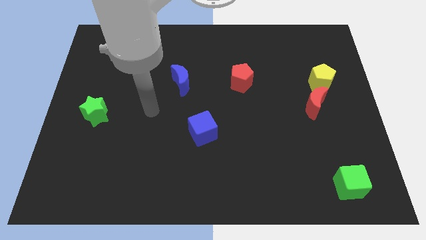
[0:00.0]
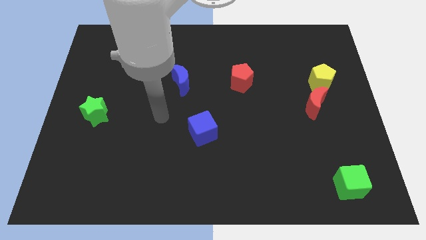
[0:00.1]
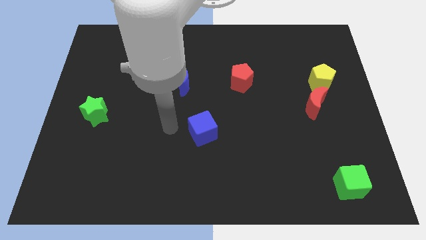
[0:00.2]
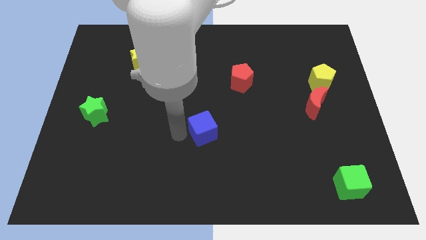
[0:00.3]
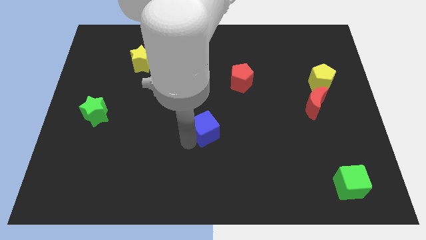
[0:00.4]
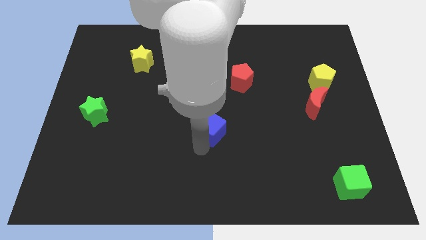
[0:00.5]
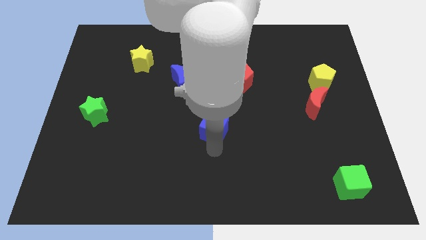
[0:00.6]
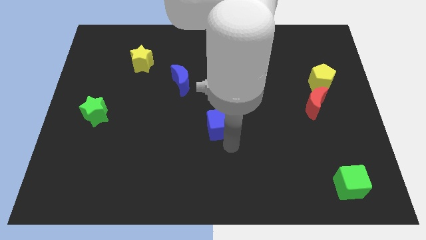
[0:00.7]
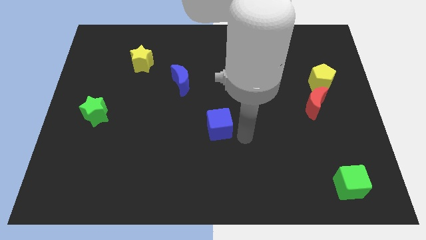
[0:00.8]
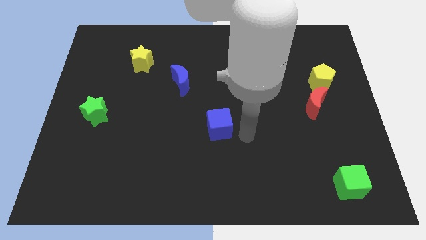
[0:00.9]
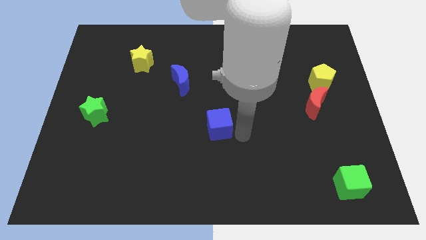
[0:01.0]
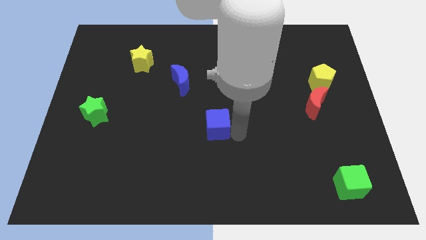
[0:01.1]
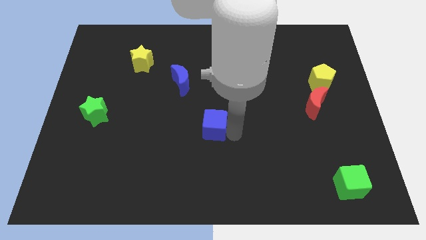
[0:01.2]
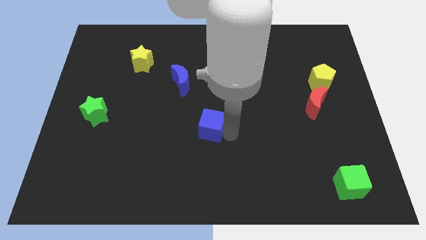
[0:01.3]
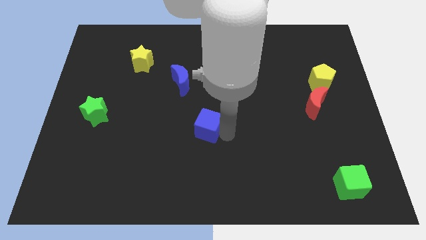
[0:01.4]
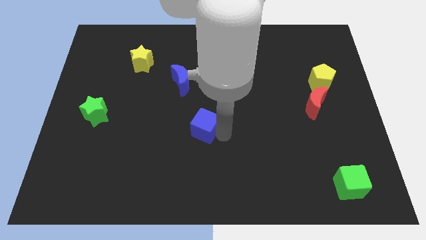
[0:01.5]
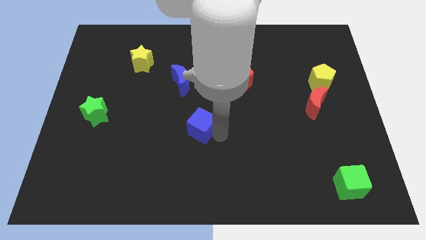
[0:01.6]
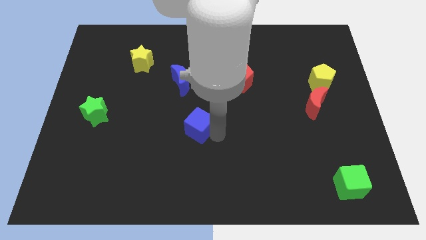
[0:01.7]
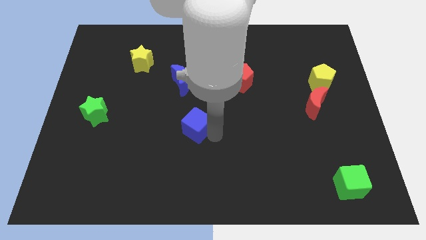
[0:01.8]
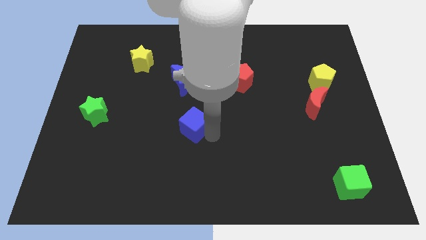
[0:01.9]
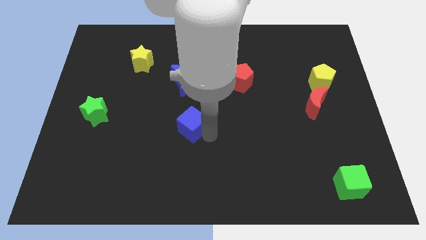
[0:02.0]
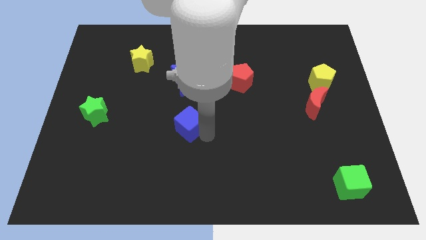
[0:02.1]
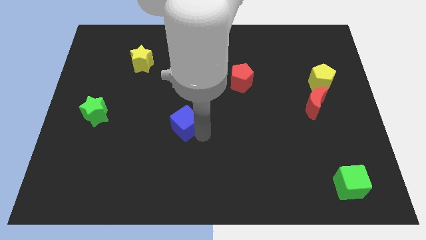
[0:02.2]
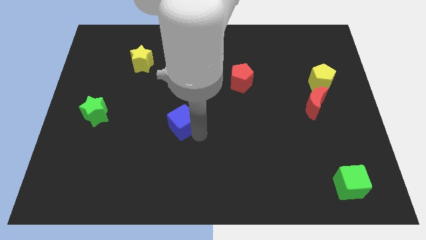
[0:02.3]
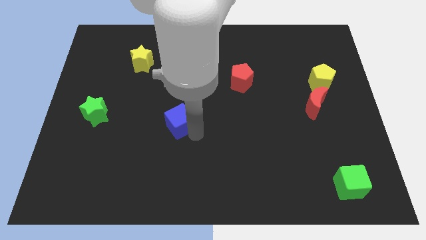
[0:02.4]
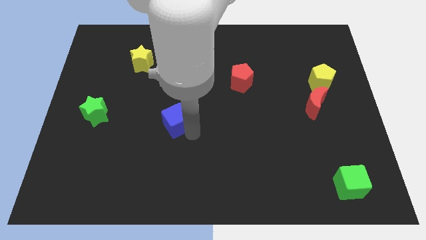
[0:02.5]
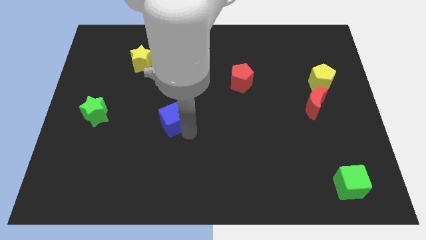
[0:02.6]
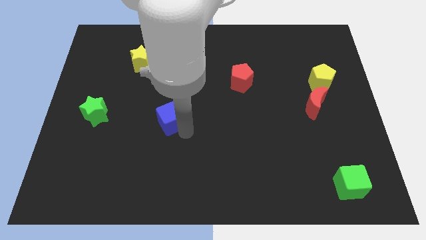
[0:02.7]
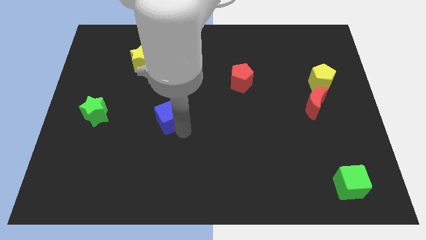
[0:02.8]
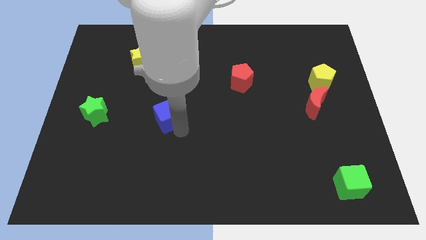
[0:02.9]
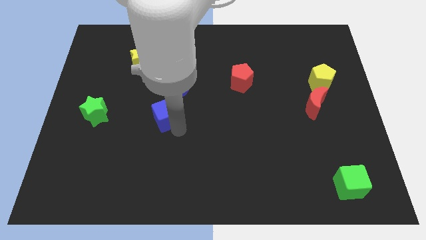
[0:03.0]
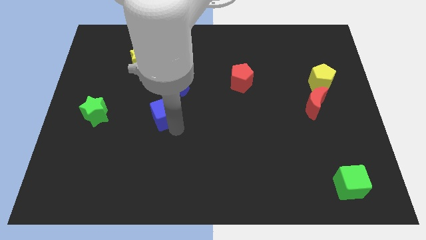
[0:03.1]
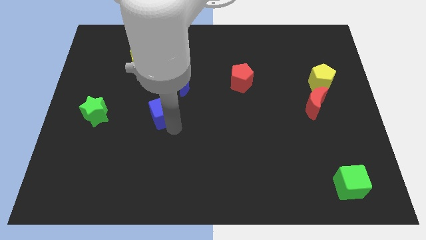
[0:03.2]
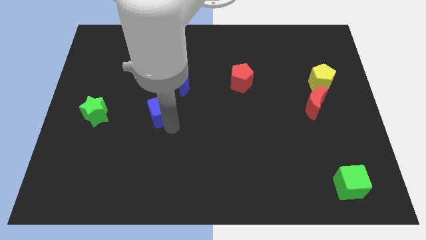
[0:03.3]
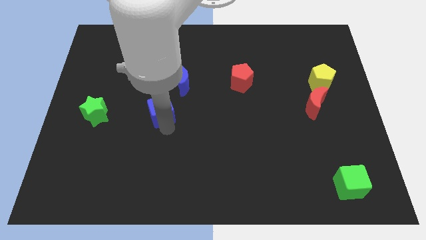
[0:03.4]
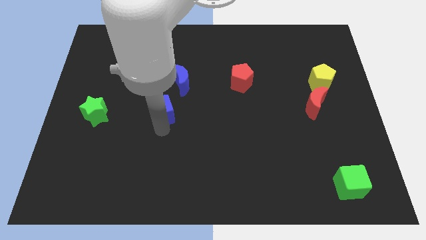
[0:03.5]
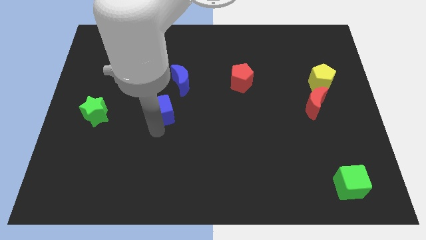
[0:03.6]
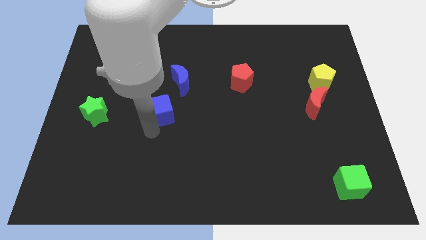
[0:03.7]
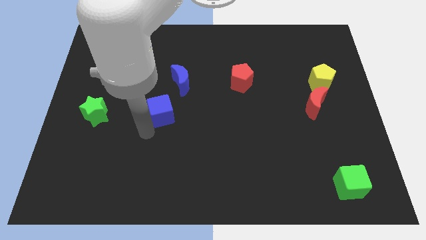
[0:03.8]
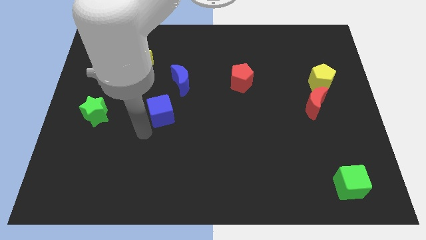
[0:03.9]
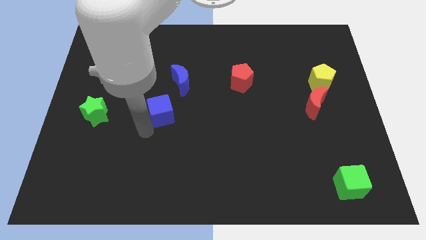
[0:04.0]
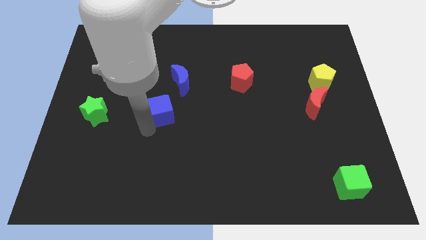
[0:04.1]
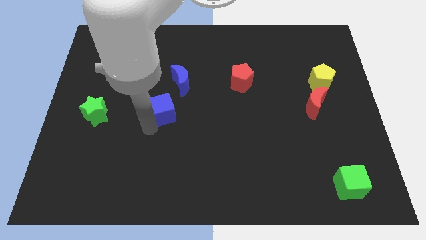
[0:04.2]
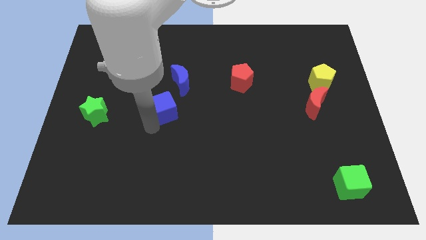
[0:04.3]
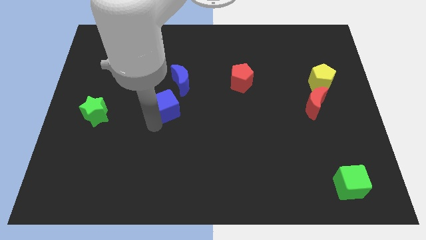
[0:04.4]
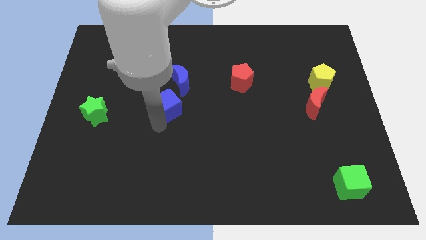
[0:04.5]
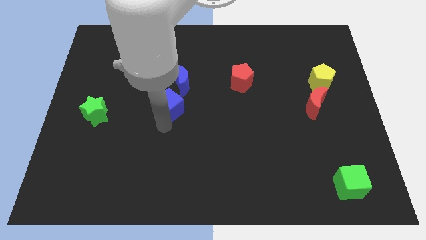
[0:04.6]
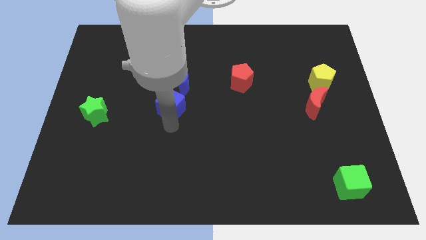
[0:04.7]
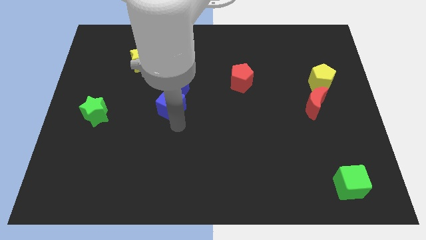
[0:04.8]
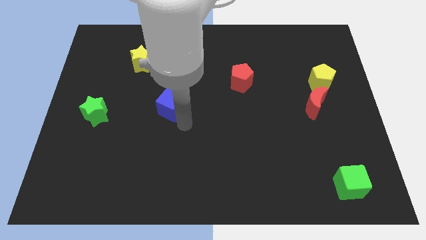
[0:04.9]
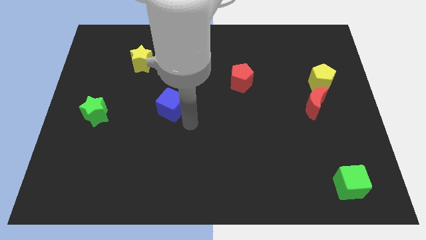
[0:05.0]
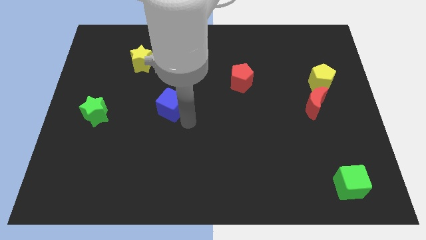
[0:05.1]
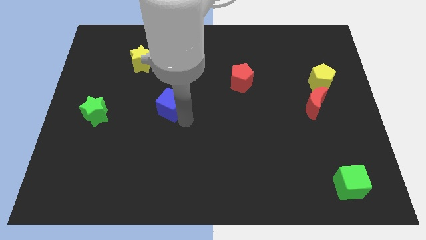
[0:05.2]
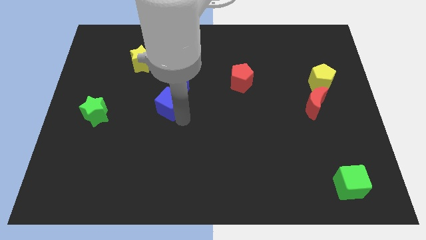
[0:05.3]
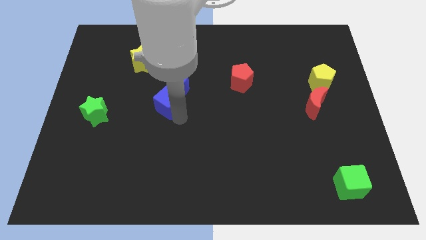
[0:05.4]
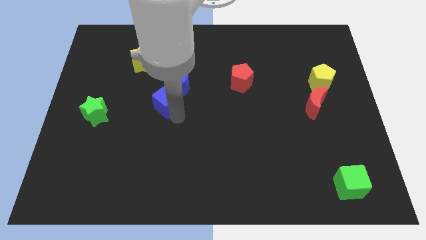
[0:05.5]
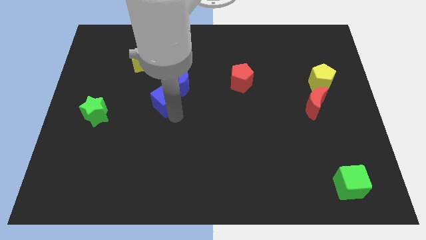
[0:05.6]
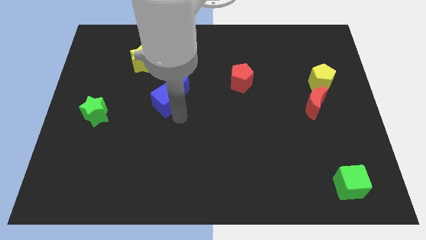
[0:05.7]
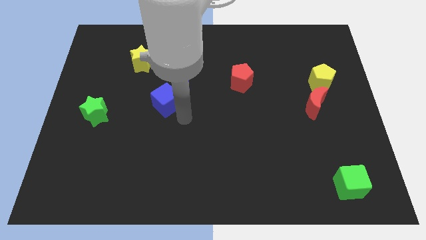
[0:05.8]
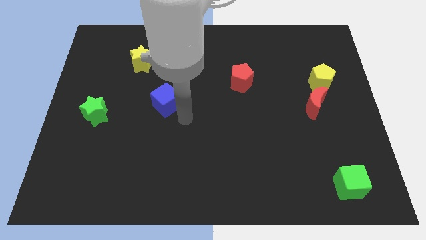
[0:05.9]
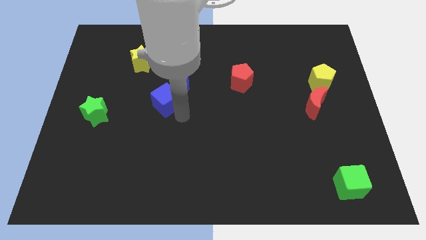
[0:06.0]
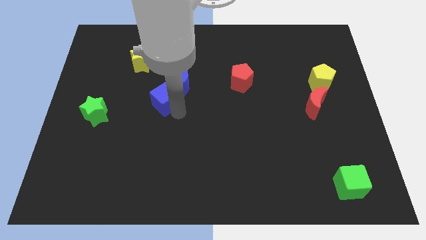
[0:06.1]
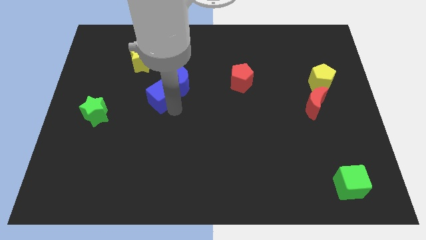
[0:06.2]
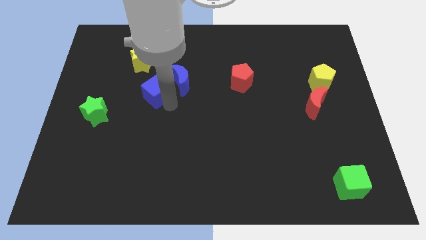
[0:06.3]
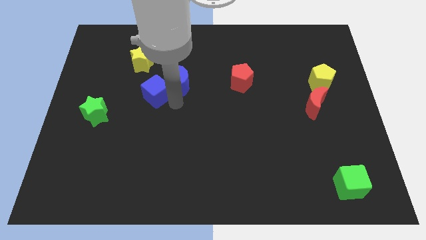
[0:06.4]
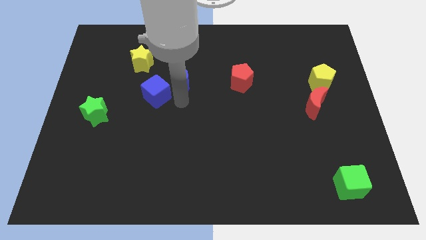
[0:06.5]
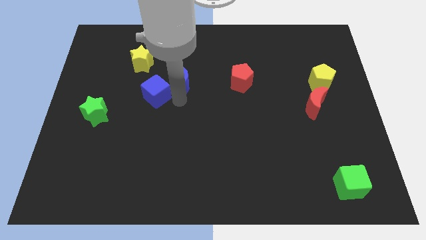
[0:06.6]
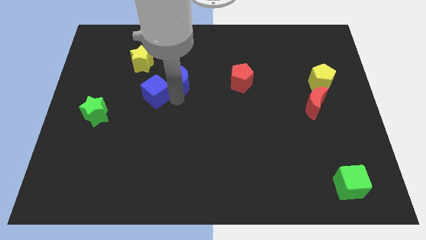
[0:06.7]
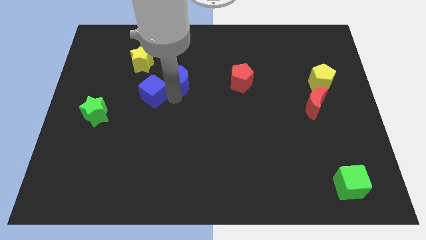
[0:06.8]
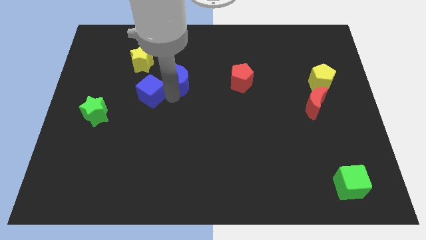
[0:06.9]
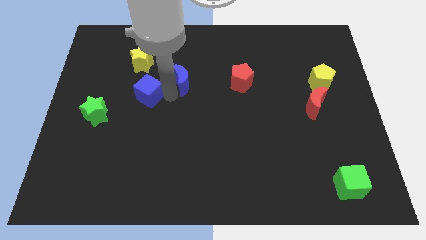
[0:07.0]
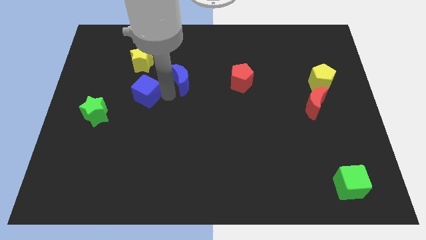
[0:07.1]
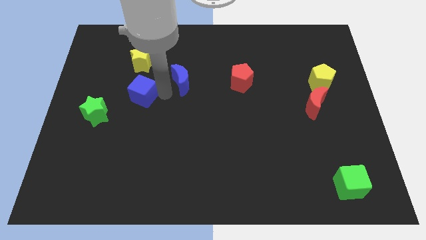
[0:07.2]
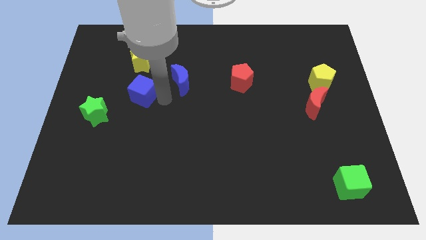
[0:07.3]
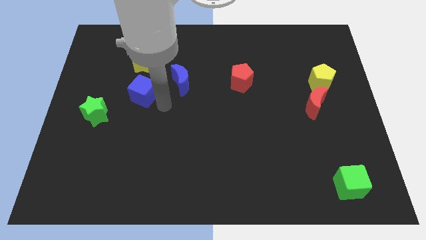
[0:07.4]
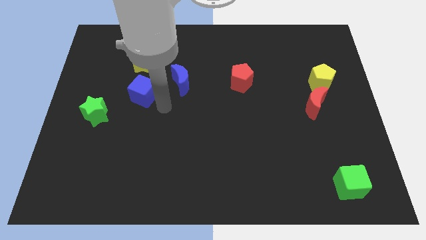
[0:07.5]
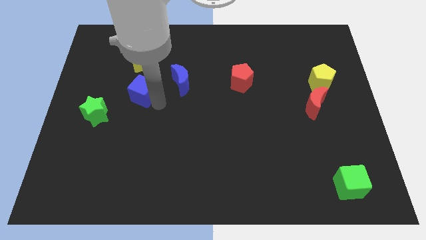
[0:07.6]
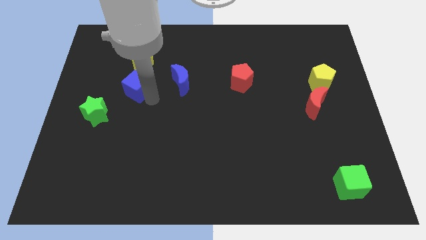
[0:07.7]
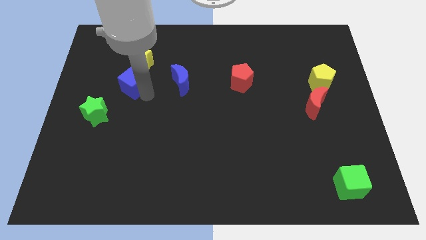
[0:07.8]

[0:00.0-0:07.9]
push the blue cube diagonally down and to the left of the yellow star
